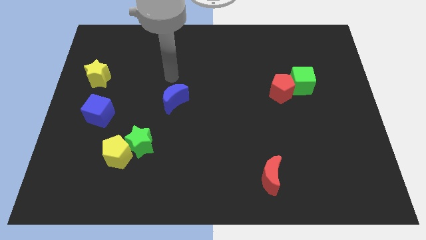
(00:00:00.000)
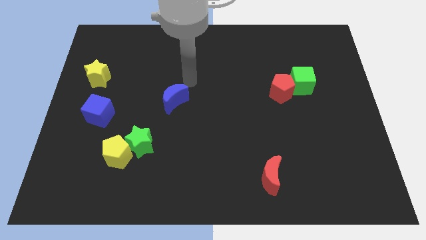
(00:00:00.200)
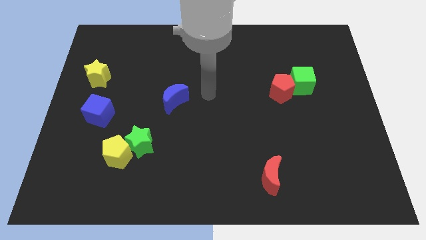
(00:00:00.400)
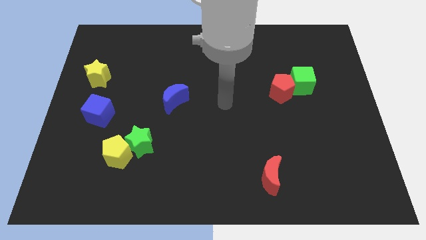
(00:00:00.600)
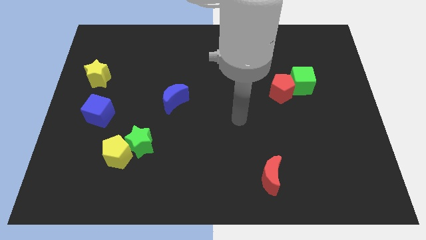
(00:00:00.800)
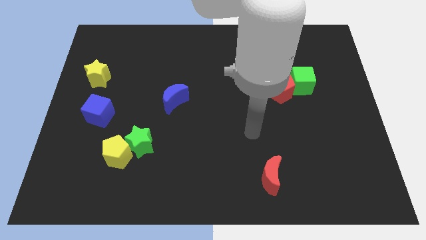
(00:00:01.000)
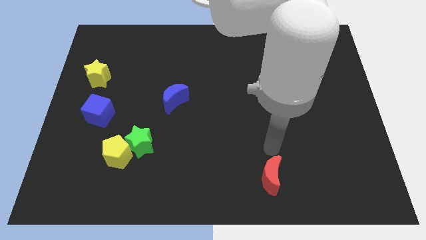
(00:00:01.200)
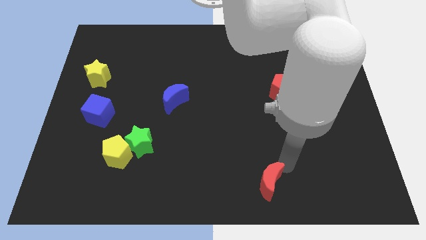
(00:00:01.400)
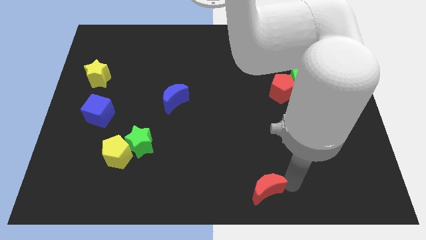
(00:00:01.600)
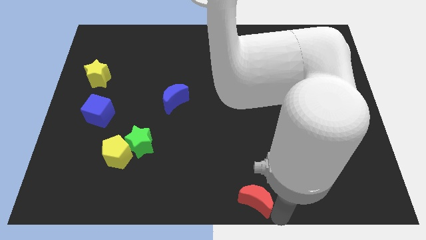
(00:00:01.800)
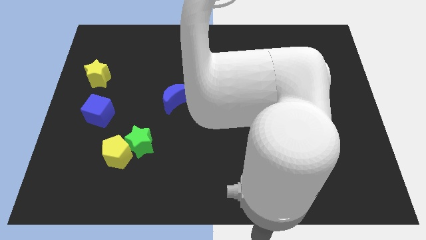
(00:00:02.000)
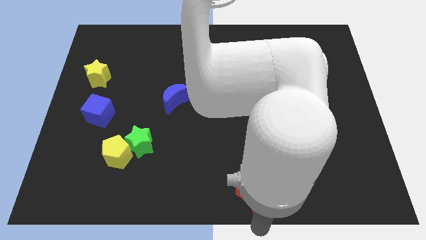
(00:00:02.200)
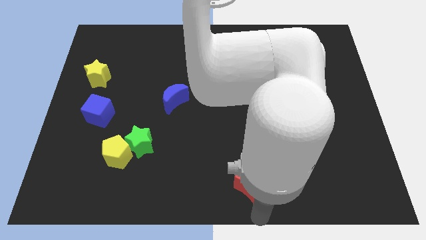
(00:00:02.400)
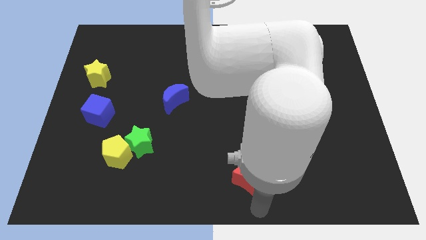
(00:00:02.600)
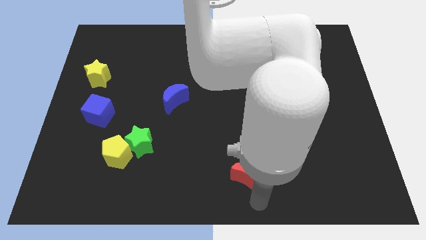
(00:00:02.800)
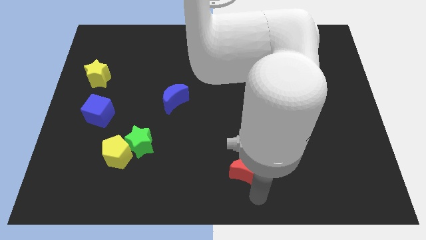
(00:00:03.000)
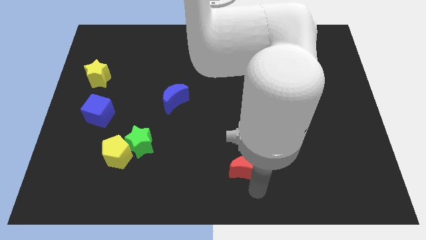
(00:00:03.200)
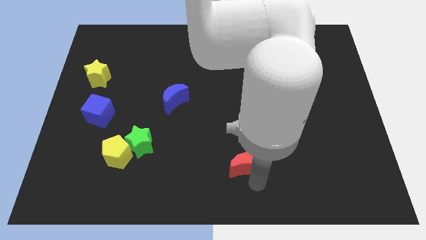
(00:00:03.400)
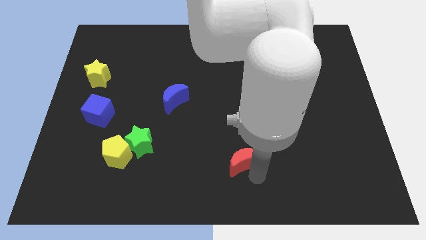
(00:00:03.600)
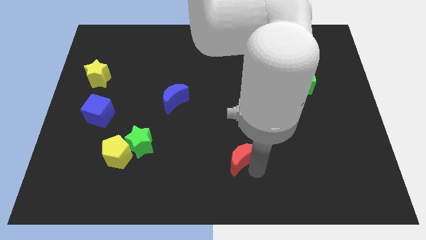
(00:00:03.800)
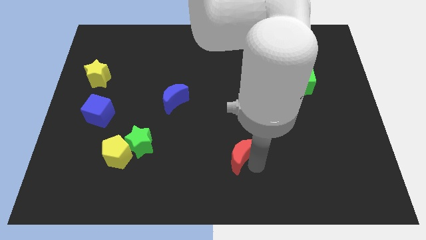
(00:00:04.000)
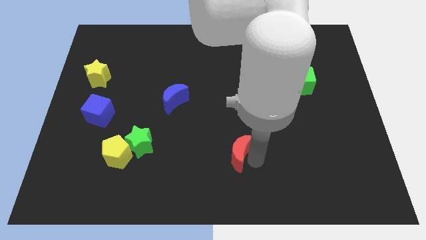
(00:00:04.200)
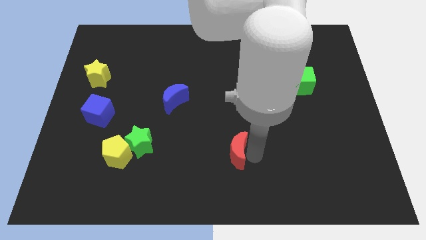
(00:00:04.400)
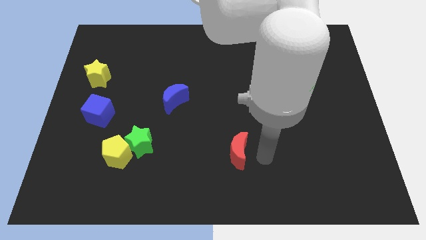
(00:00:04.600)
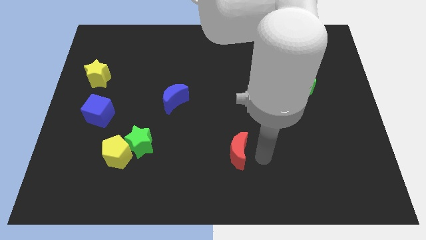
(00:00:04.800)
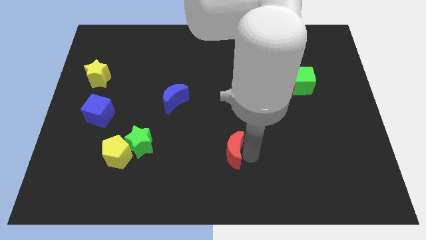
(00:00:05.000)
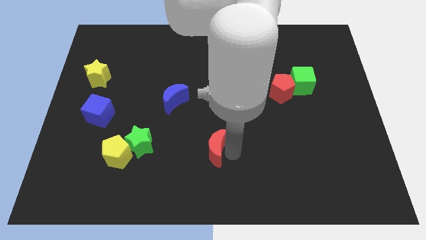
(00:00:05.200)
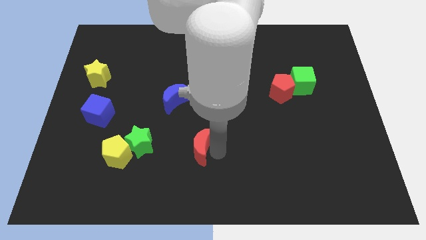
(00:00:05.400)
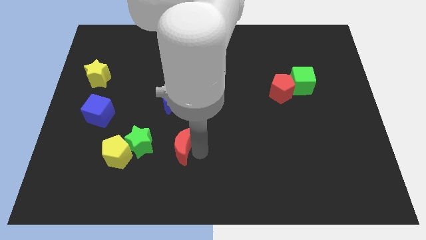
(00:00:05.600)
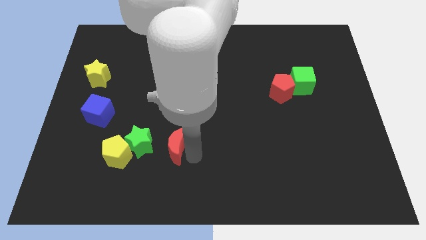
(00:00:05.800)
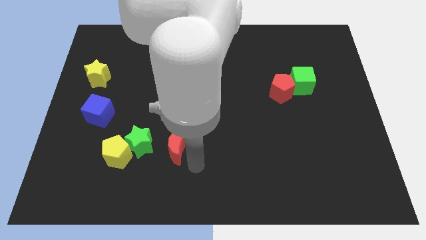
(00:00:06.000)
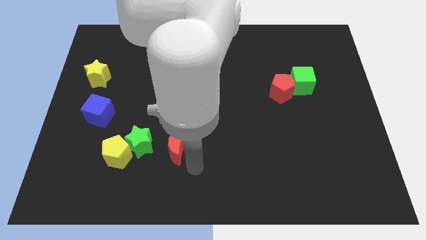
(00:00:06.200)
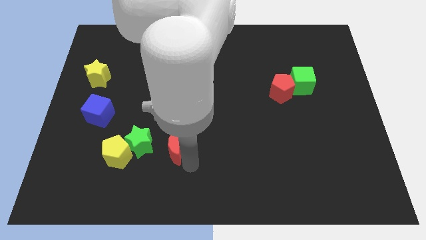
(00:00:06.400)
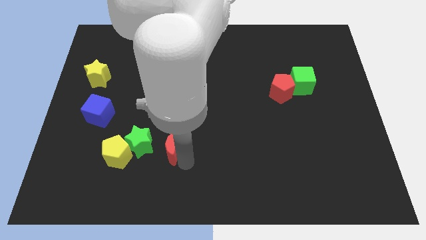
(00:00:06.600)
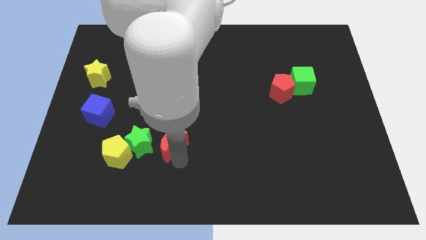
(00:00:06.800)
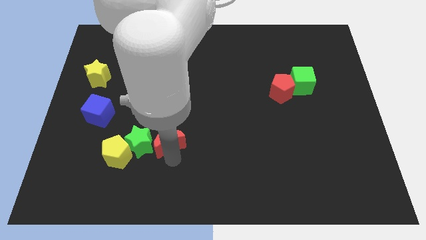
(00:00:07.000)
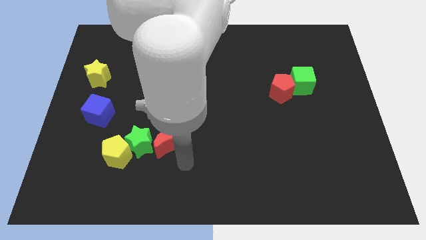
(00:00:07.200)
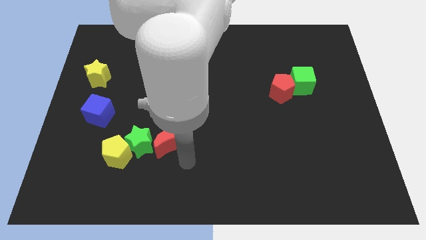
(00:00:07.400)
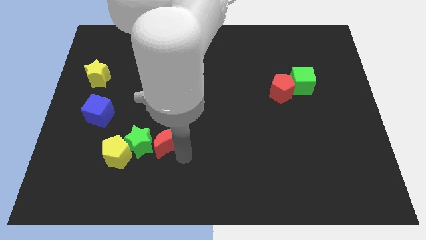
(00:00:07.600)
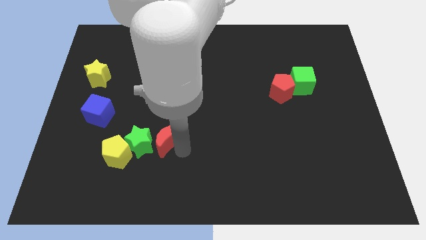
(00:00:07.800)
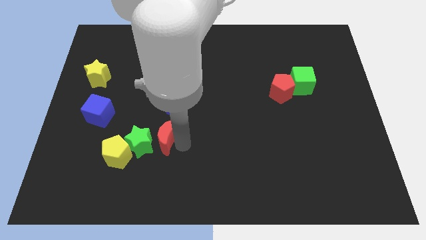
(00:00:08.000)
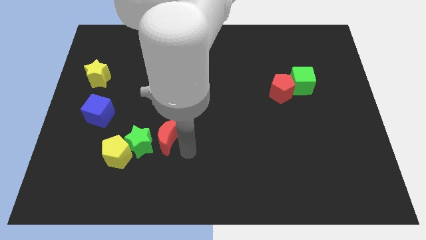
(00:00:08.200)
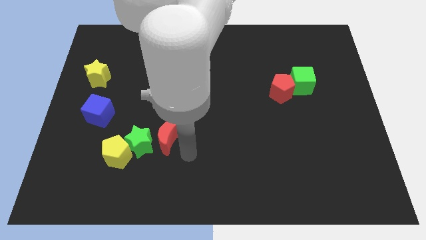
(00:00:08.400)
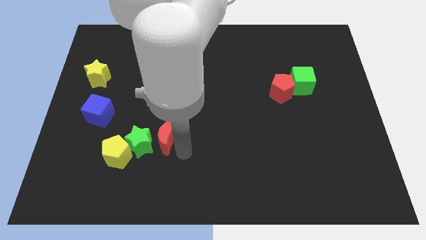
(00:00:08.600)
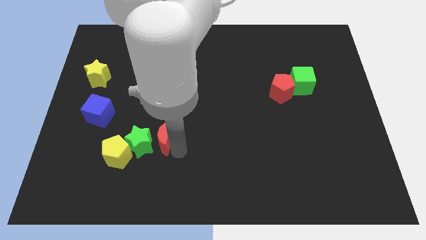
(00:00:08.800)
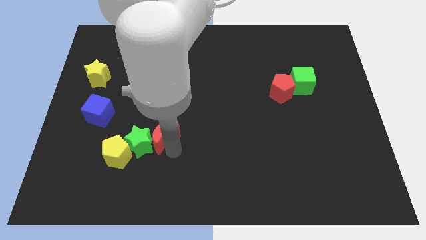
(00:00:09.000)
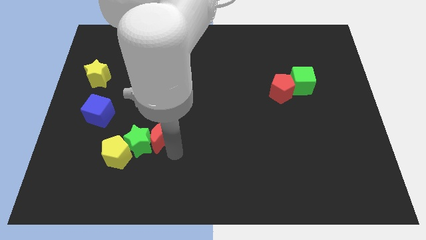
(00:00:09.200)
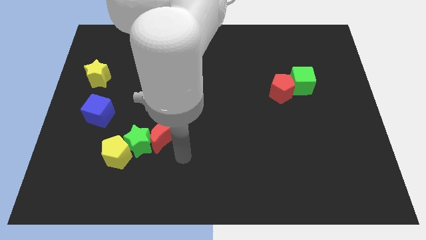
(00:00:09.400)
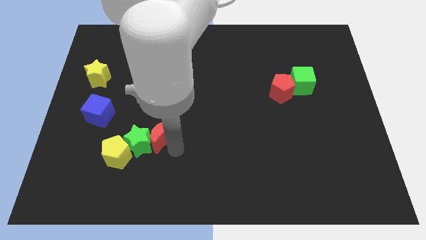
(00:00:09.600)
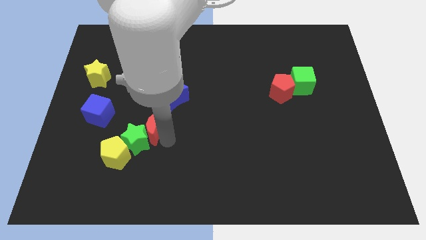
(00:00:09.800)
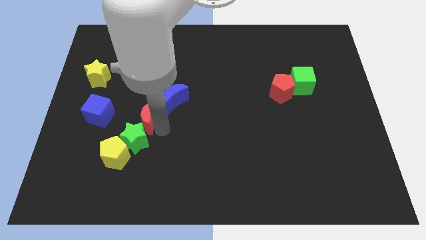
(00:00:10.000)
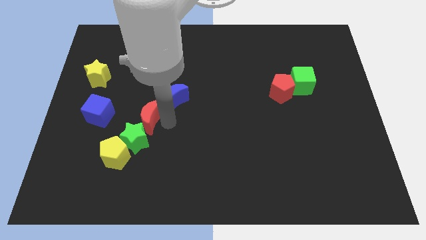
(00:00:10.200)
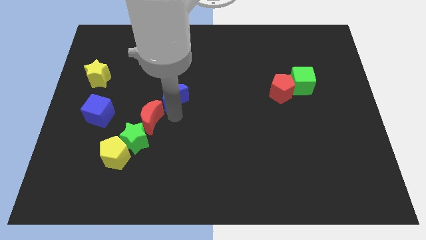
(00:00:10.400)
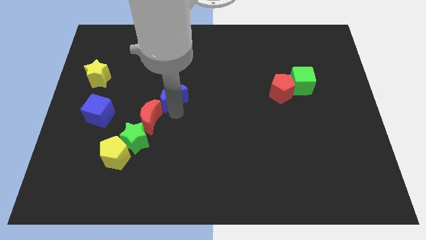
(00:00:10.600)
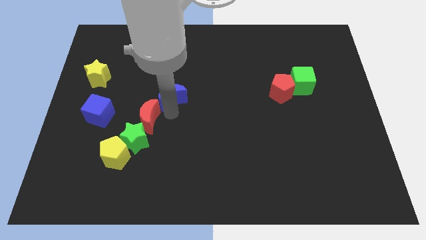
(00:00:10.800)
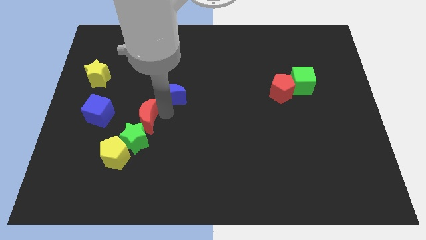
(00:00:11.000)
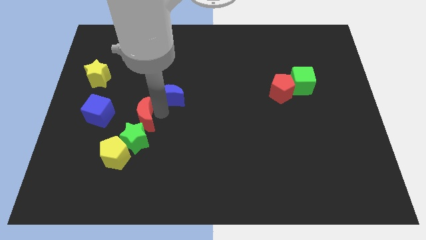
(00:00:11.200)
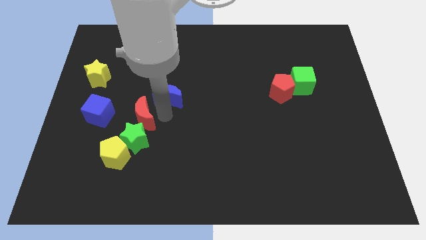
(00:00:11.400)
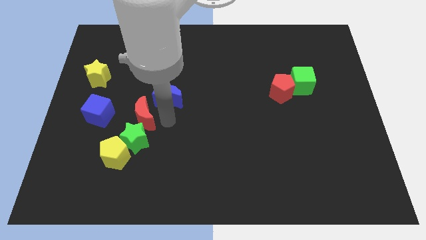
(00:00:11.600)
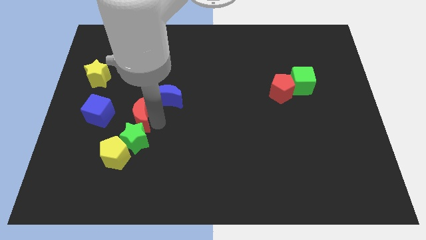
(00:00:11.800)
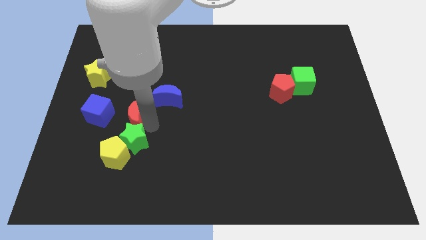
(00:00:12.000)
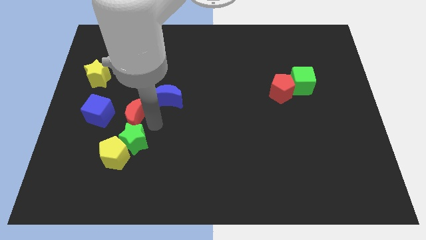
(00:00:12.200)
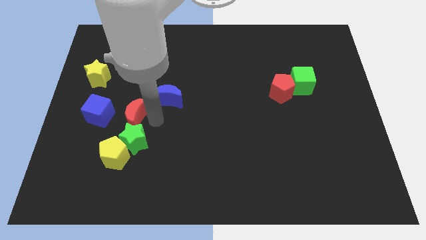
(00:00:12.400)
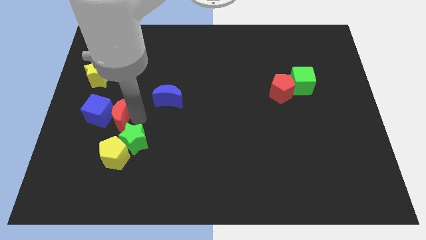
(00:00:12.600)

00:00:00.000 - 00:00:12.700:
move the red moon next to the blue cube

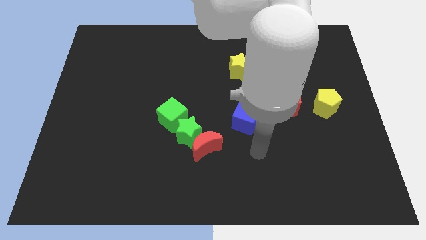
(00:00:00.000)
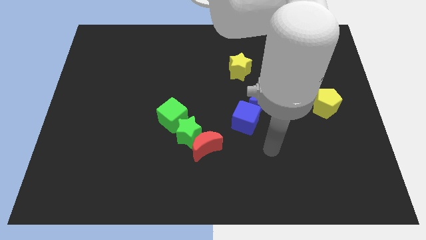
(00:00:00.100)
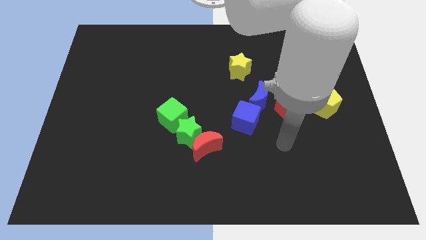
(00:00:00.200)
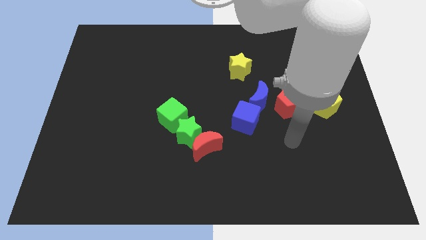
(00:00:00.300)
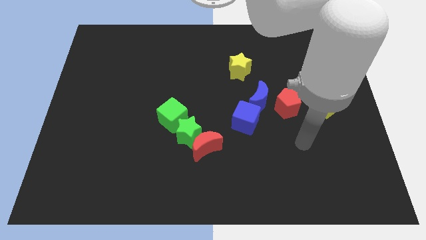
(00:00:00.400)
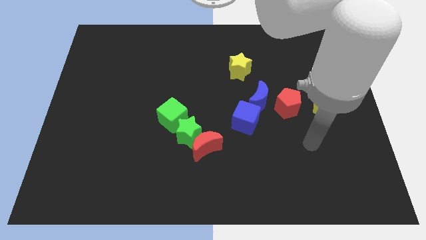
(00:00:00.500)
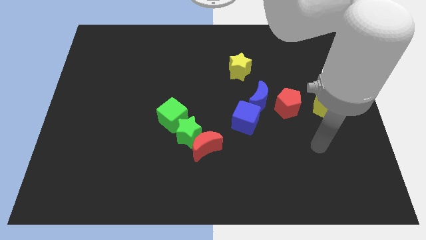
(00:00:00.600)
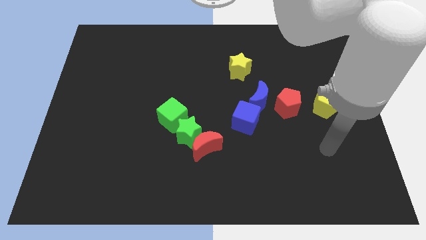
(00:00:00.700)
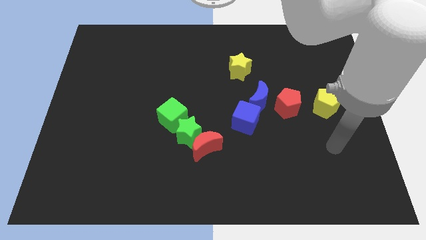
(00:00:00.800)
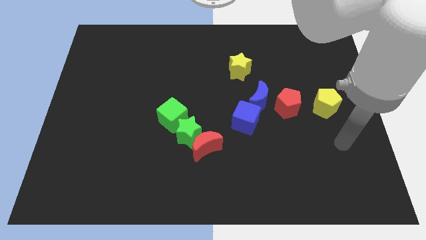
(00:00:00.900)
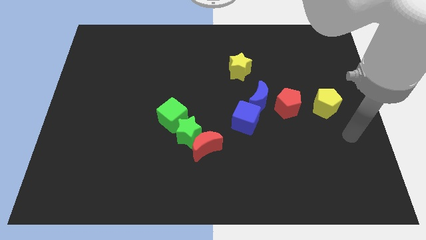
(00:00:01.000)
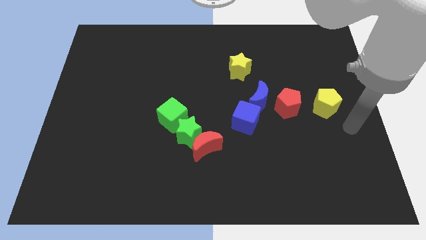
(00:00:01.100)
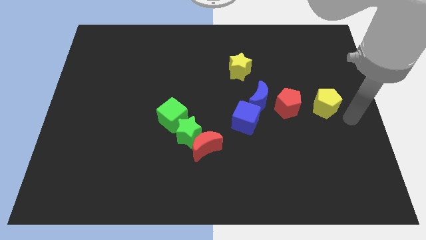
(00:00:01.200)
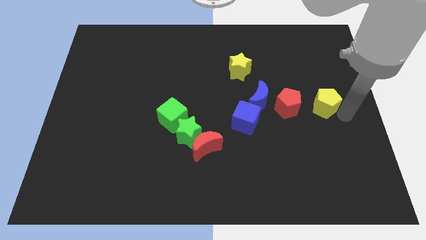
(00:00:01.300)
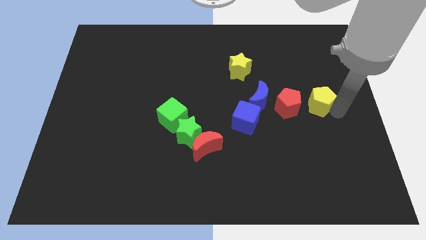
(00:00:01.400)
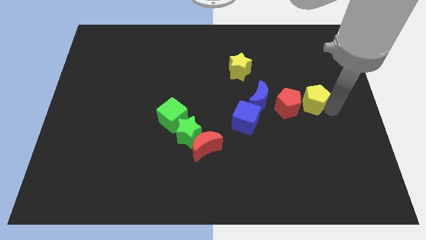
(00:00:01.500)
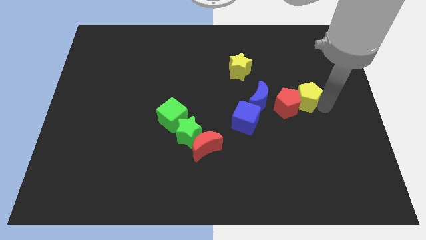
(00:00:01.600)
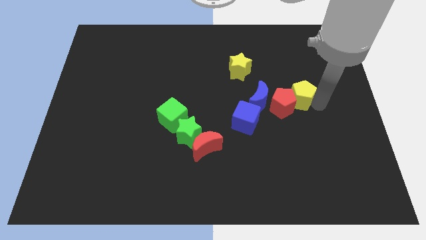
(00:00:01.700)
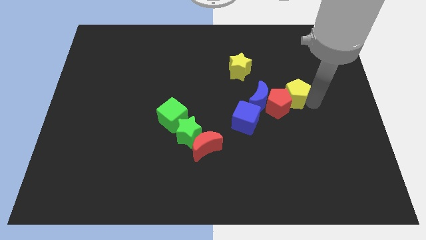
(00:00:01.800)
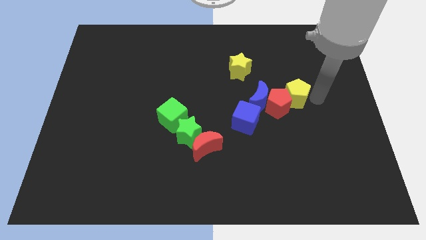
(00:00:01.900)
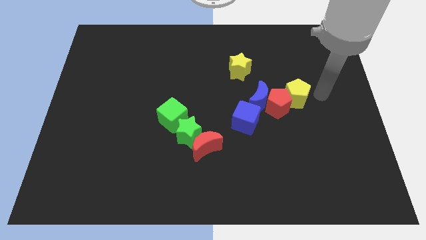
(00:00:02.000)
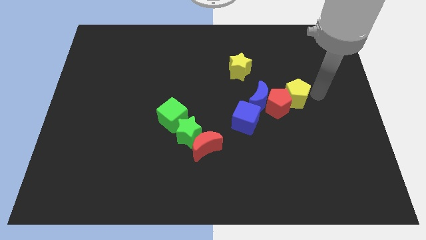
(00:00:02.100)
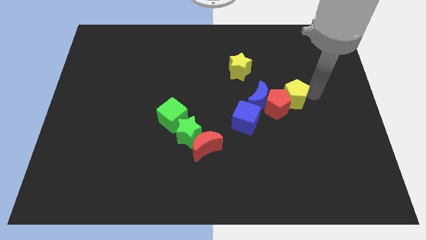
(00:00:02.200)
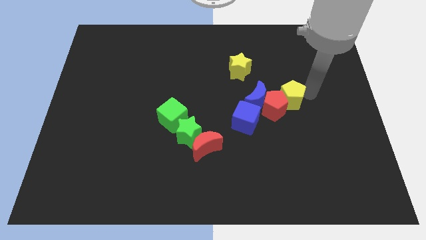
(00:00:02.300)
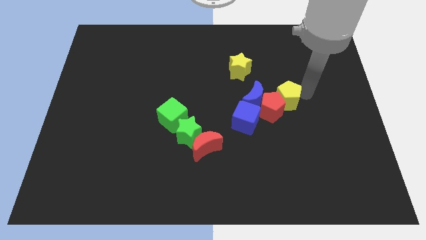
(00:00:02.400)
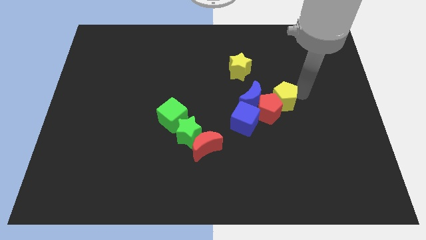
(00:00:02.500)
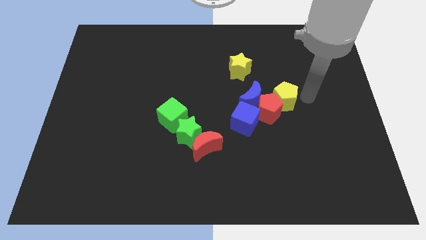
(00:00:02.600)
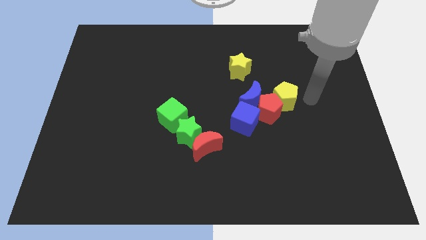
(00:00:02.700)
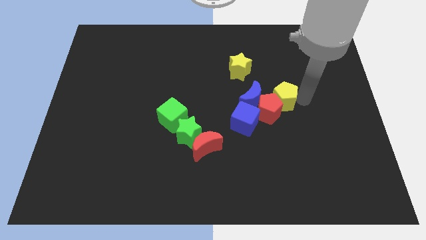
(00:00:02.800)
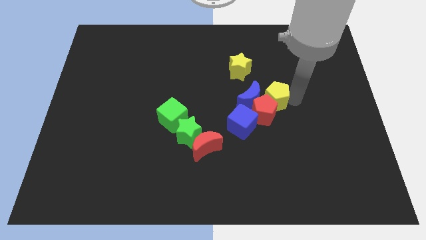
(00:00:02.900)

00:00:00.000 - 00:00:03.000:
put the yellow pentagon towards the blue moon
